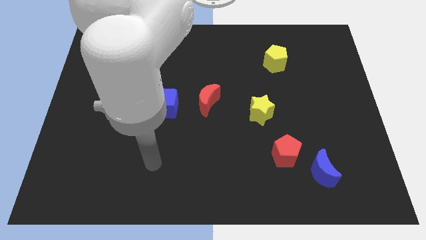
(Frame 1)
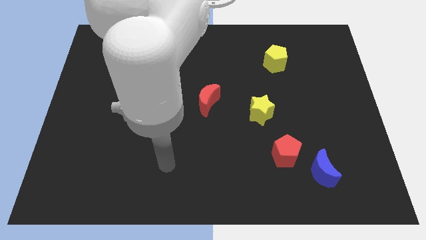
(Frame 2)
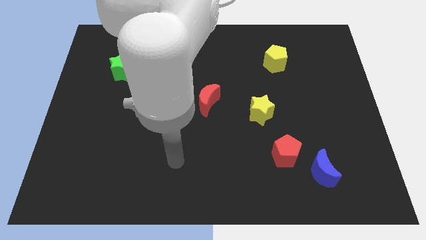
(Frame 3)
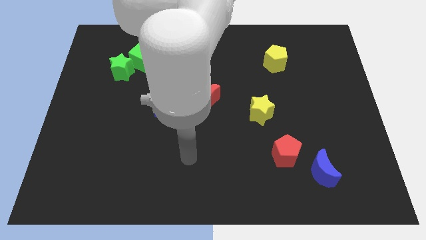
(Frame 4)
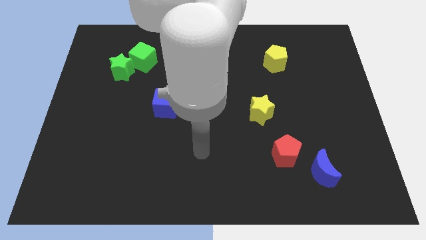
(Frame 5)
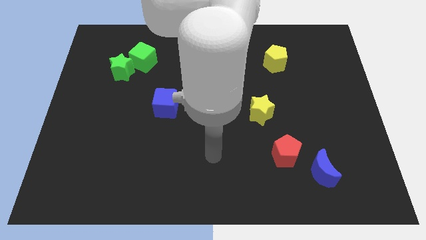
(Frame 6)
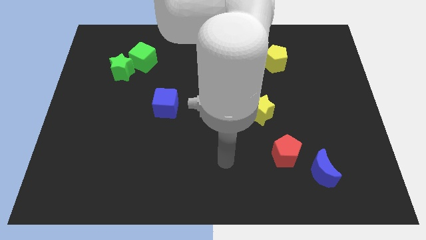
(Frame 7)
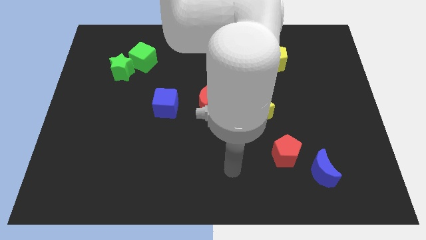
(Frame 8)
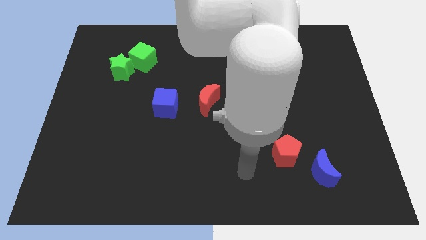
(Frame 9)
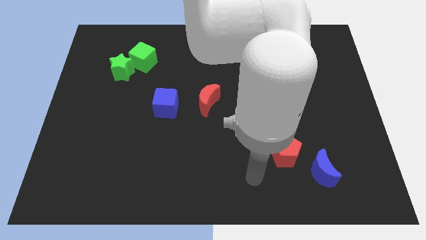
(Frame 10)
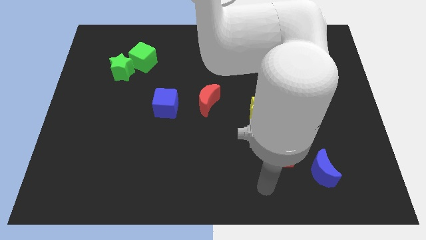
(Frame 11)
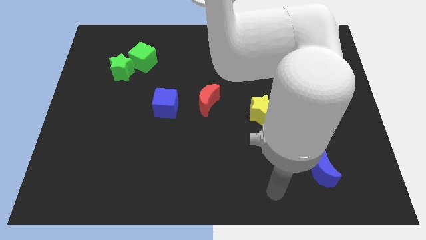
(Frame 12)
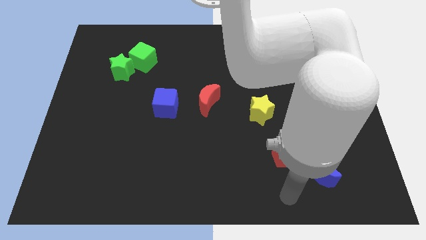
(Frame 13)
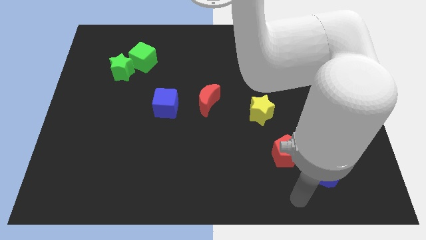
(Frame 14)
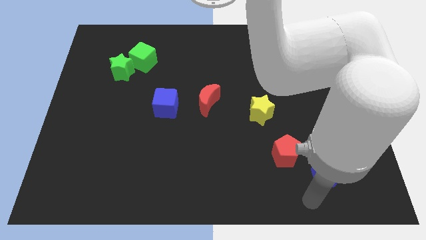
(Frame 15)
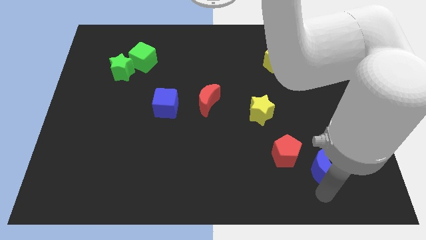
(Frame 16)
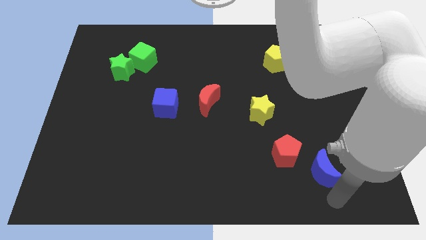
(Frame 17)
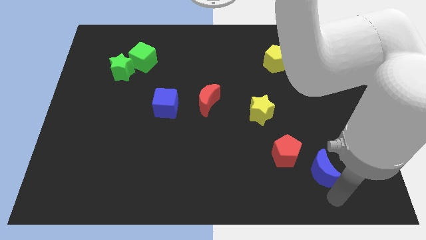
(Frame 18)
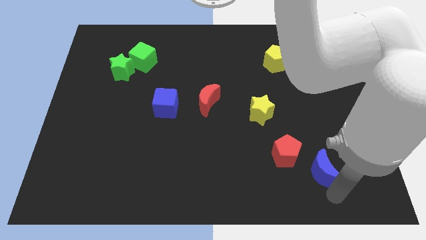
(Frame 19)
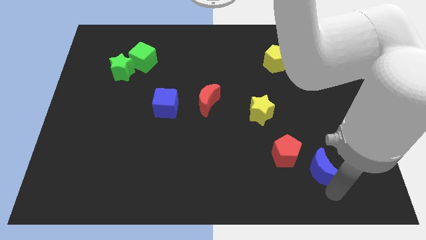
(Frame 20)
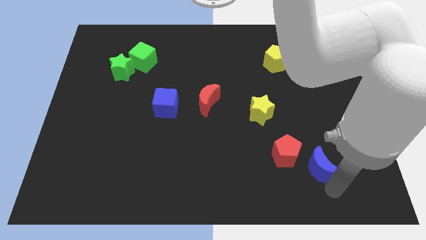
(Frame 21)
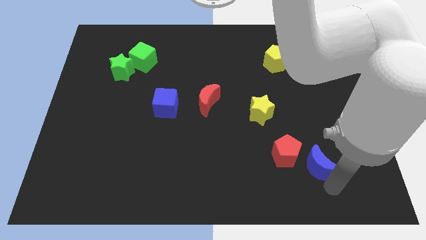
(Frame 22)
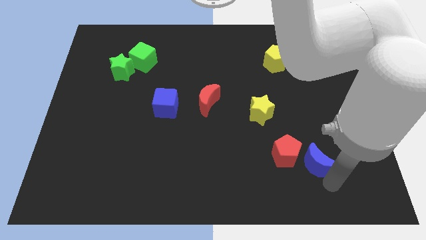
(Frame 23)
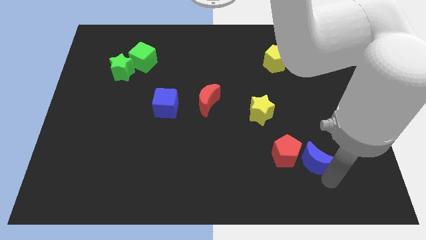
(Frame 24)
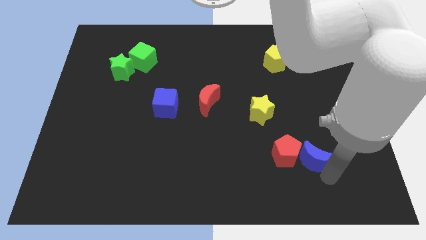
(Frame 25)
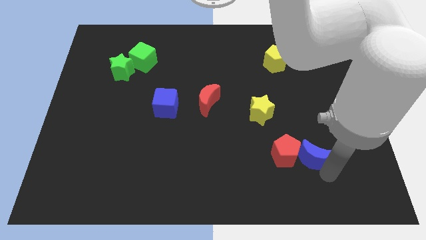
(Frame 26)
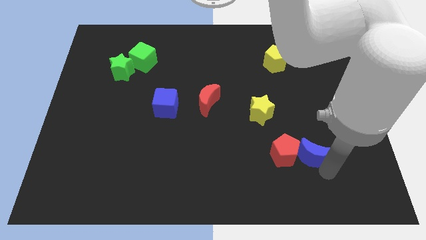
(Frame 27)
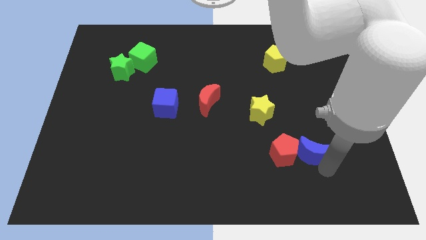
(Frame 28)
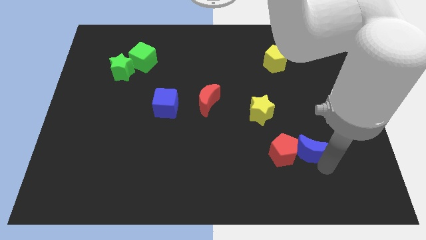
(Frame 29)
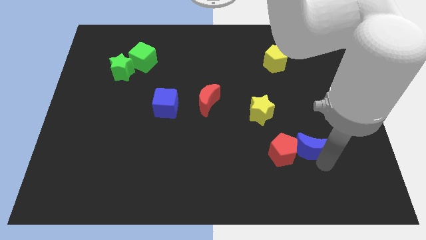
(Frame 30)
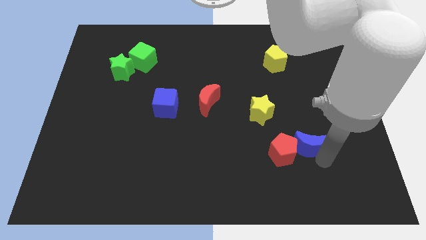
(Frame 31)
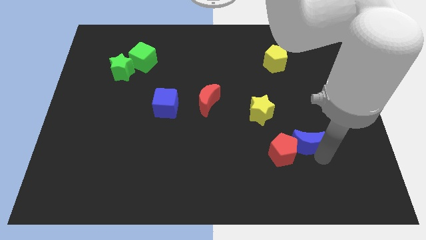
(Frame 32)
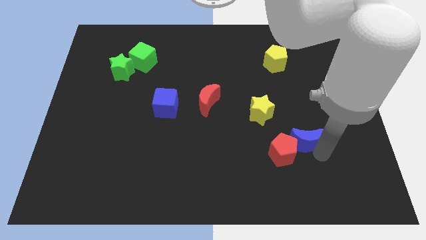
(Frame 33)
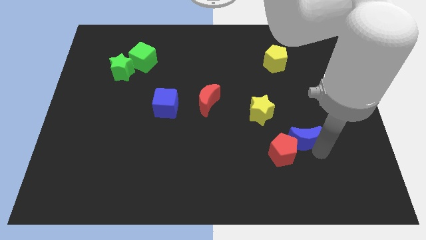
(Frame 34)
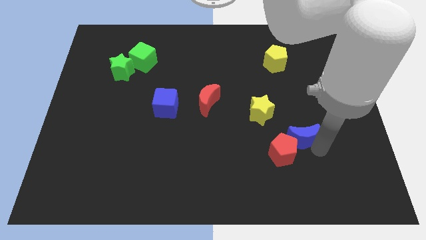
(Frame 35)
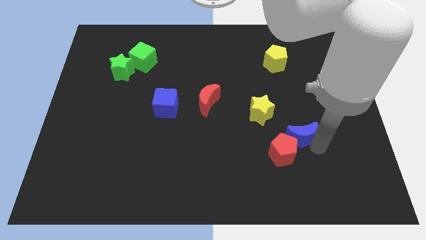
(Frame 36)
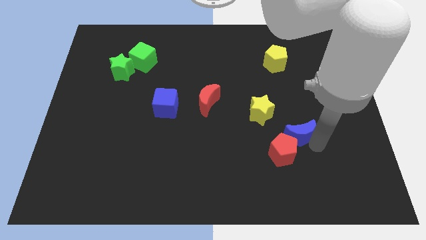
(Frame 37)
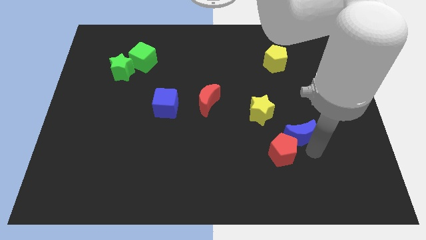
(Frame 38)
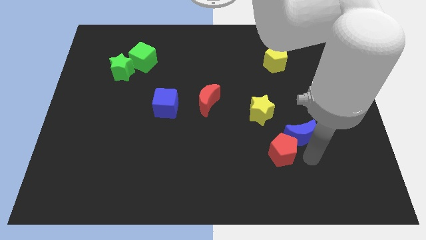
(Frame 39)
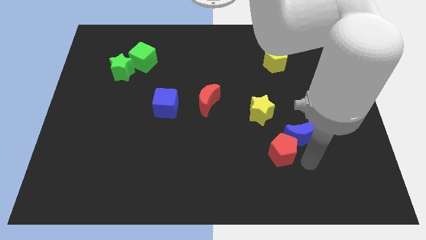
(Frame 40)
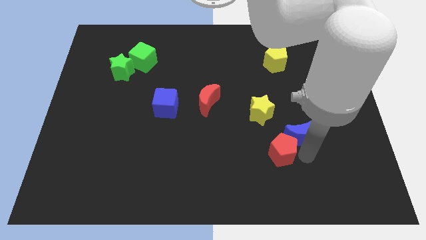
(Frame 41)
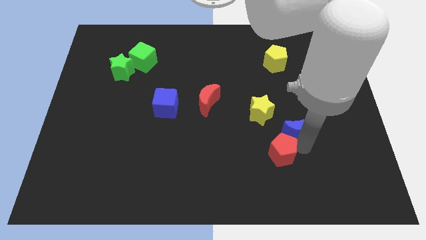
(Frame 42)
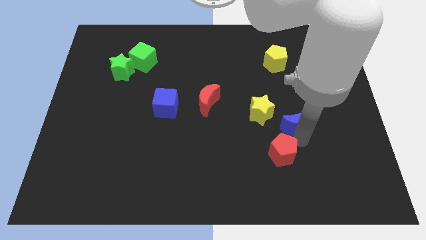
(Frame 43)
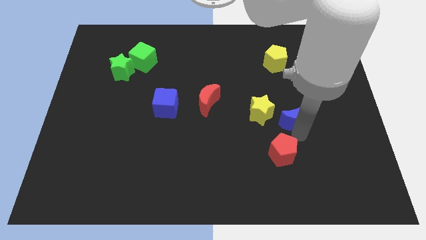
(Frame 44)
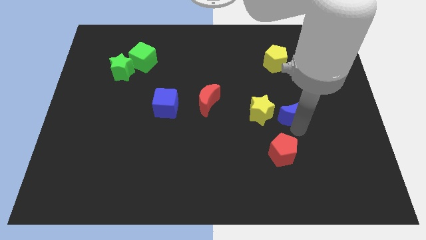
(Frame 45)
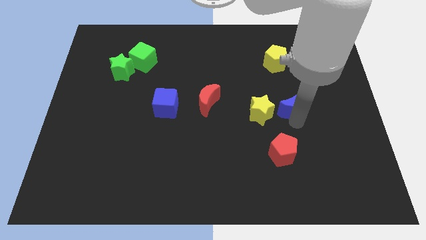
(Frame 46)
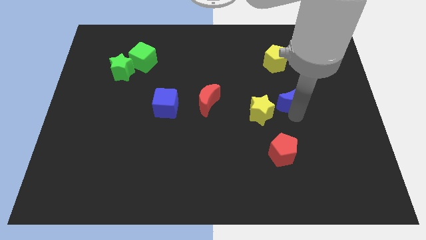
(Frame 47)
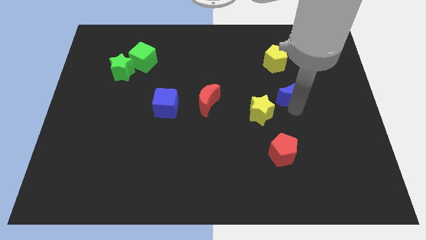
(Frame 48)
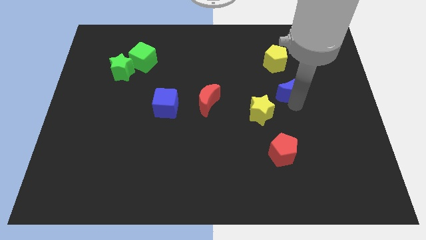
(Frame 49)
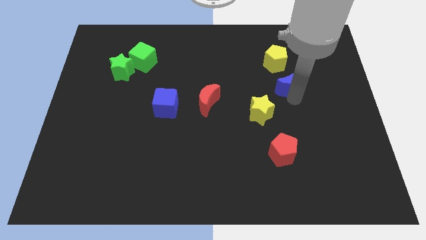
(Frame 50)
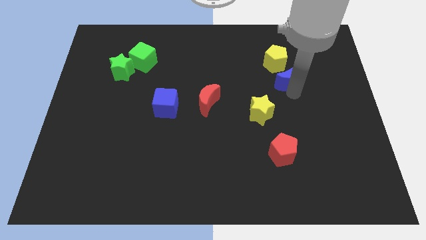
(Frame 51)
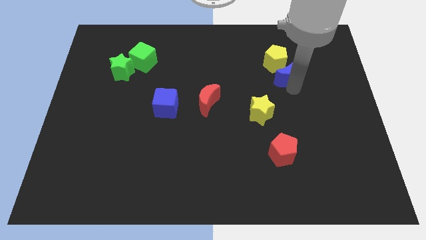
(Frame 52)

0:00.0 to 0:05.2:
put the blue moon to the yellow pentagon

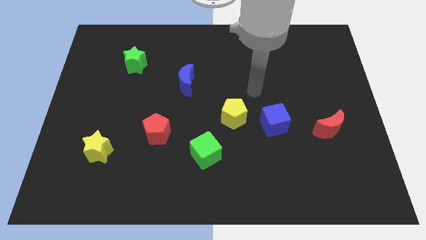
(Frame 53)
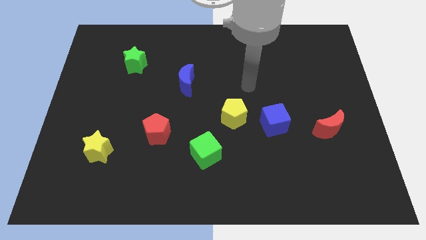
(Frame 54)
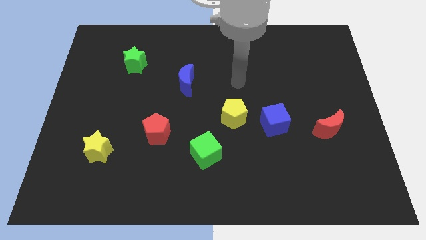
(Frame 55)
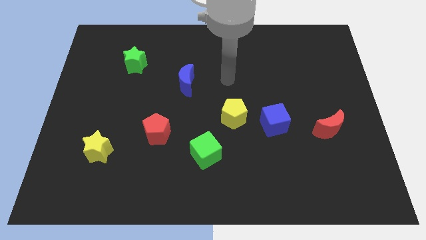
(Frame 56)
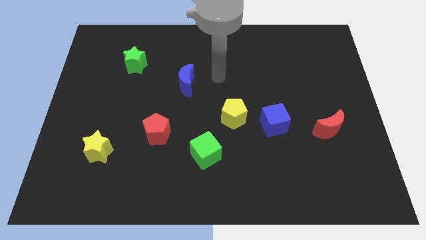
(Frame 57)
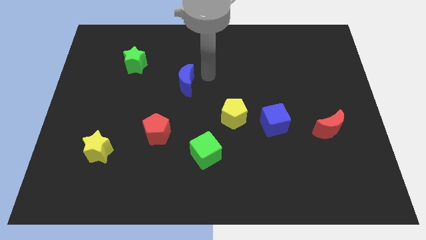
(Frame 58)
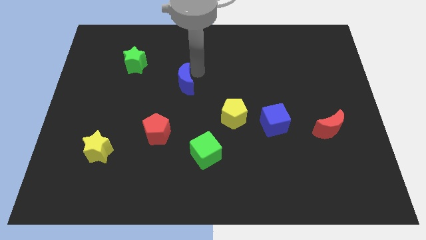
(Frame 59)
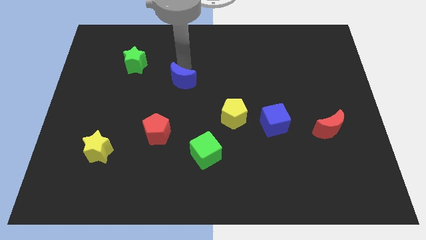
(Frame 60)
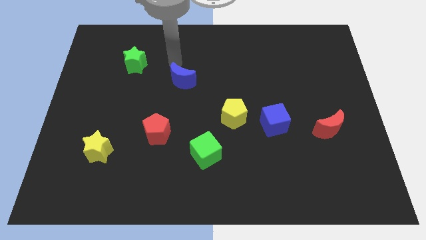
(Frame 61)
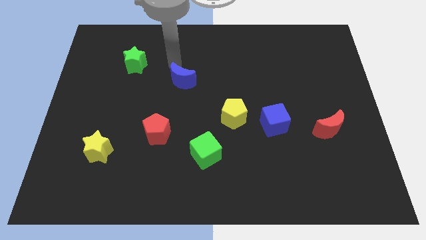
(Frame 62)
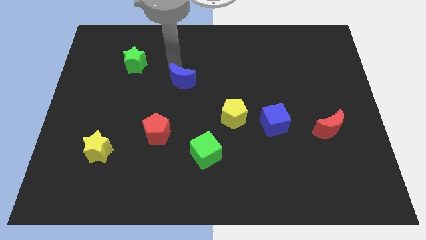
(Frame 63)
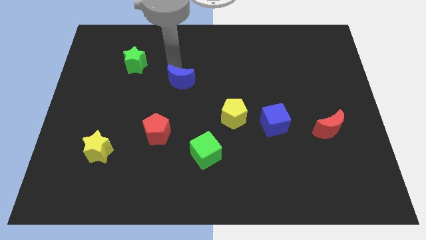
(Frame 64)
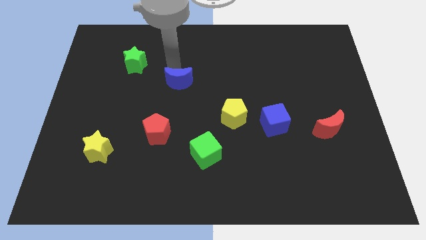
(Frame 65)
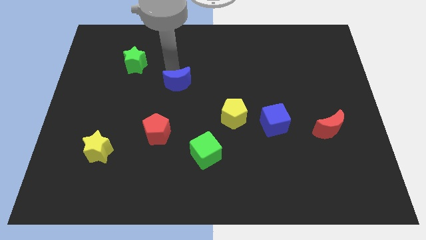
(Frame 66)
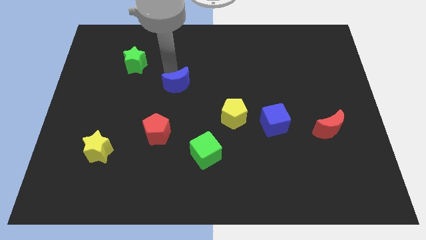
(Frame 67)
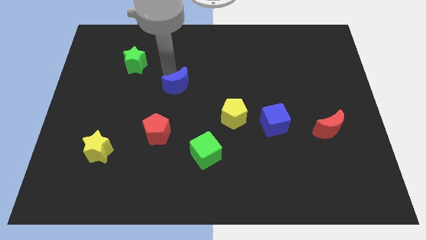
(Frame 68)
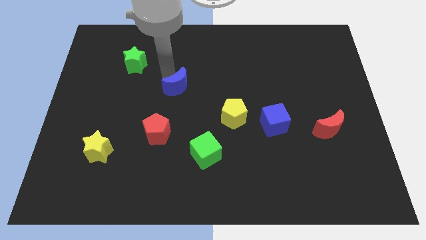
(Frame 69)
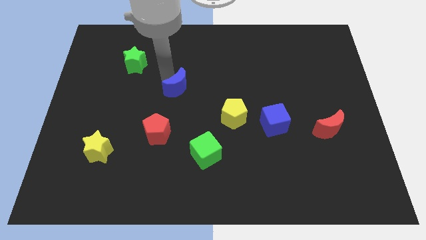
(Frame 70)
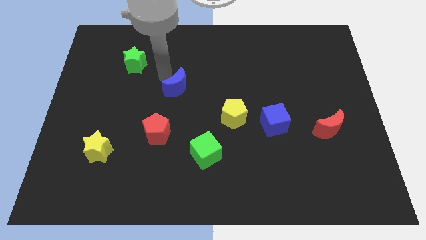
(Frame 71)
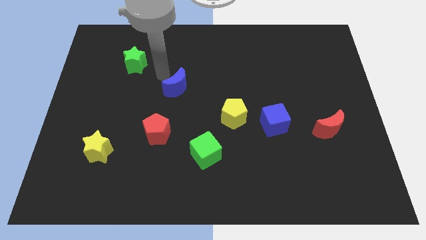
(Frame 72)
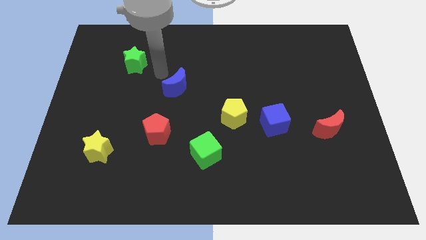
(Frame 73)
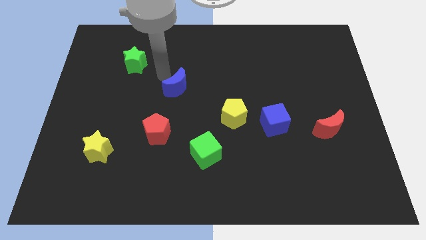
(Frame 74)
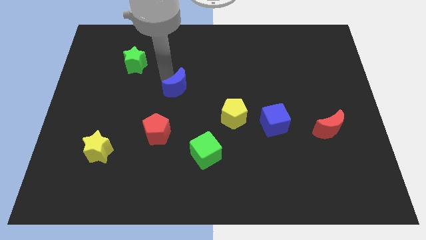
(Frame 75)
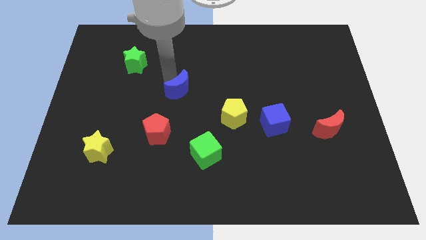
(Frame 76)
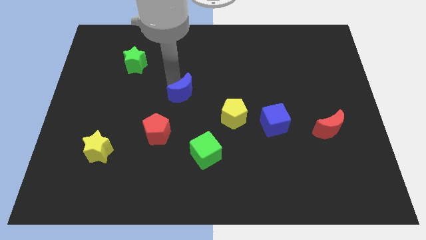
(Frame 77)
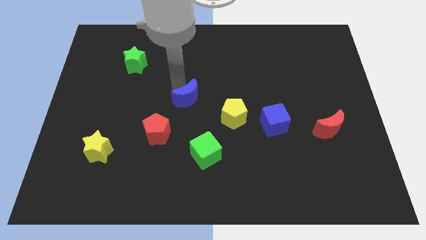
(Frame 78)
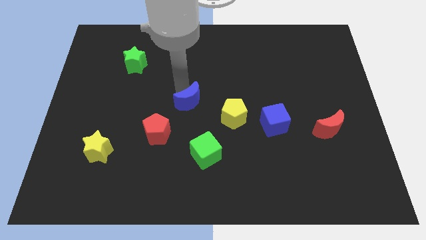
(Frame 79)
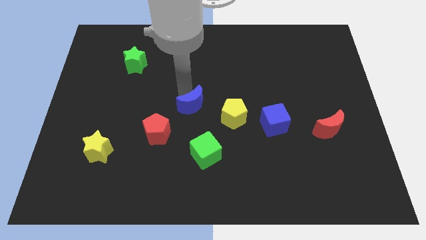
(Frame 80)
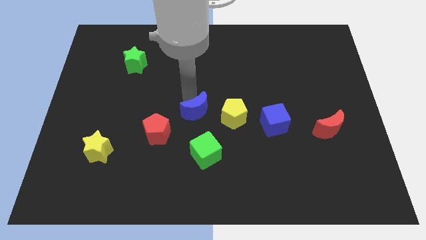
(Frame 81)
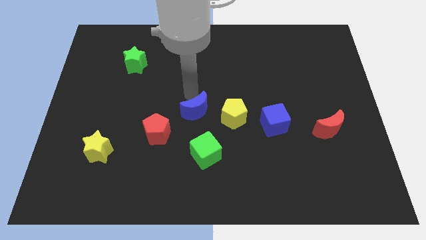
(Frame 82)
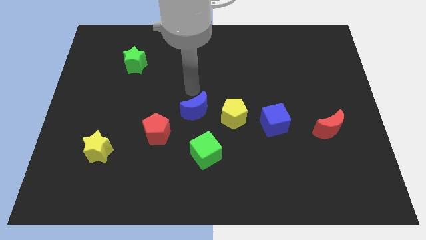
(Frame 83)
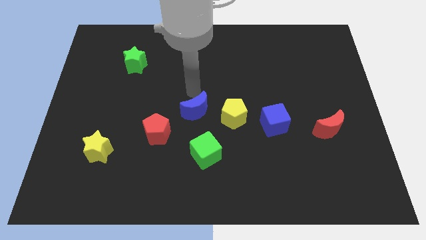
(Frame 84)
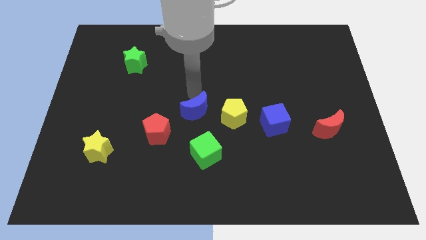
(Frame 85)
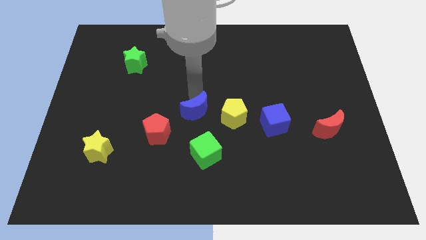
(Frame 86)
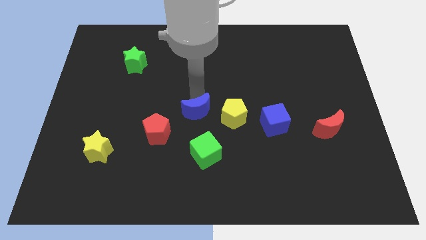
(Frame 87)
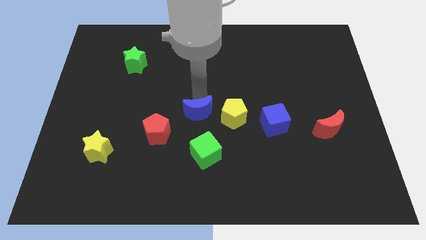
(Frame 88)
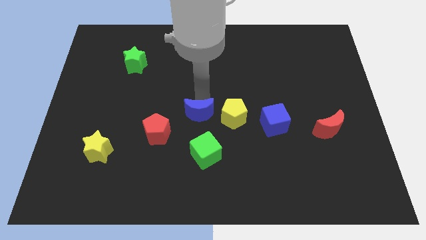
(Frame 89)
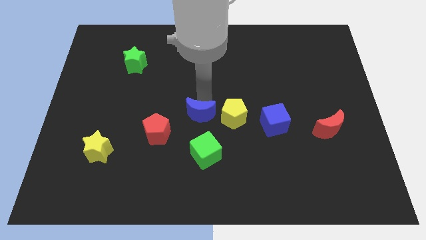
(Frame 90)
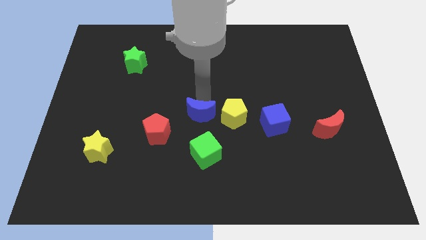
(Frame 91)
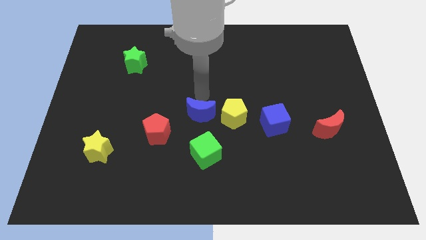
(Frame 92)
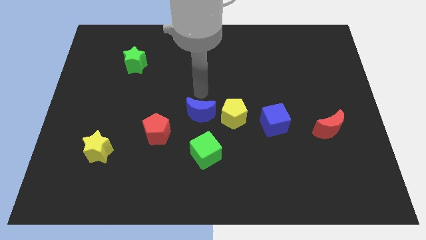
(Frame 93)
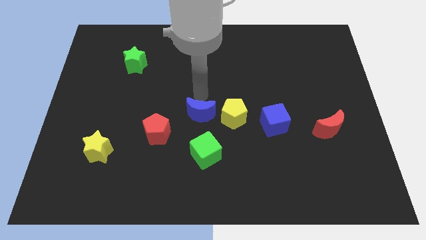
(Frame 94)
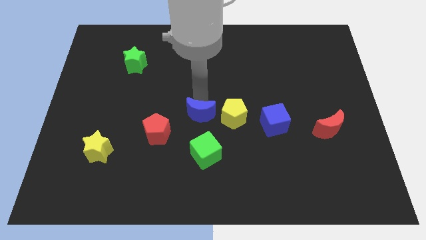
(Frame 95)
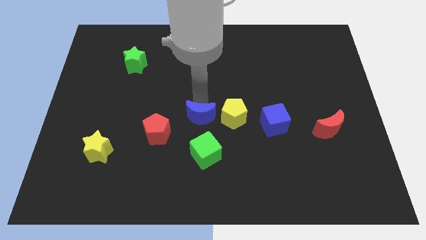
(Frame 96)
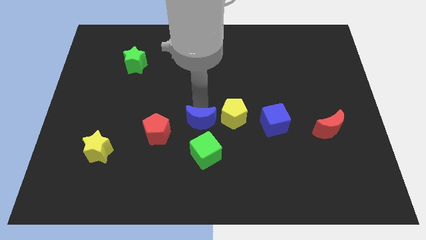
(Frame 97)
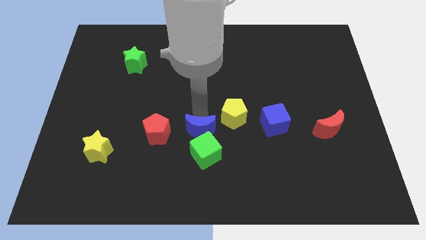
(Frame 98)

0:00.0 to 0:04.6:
put the blue moon to the green cube
